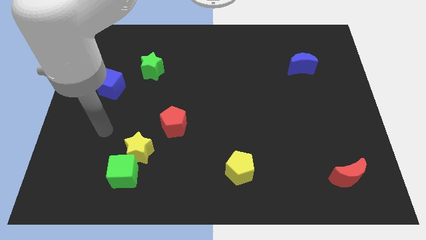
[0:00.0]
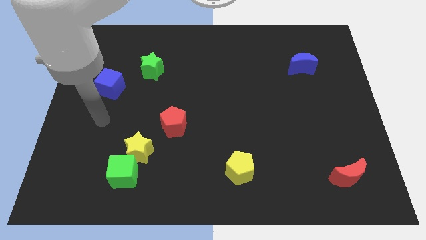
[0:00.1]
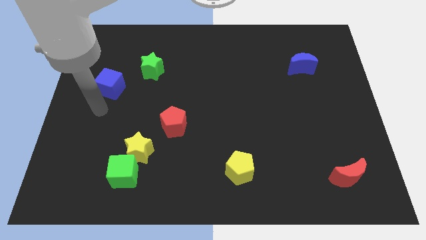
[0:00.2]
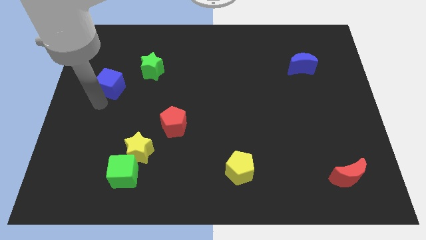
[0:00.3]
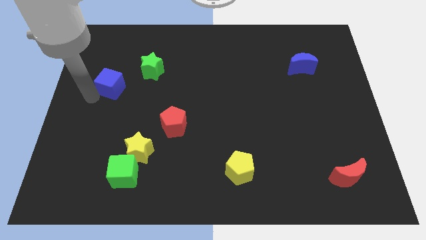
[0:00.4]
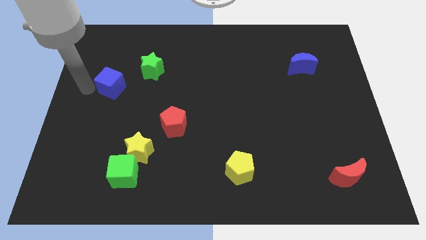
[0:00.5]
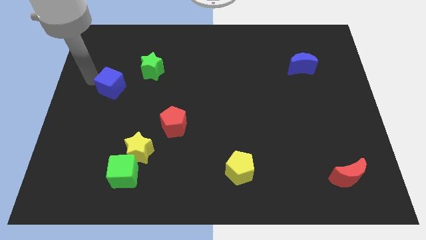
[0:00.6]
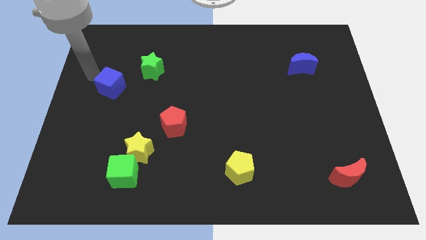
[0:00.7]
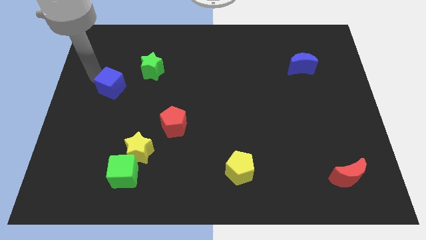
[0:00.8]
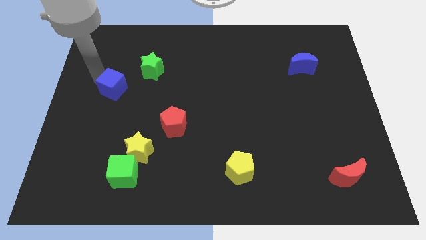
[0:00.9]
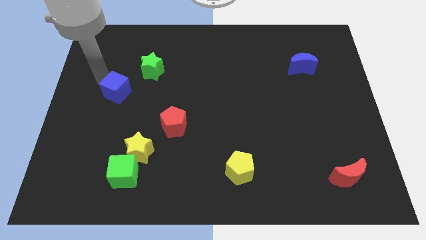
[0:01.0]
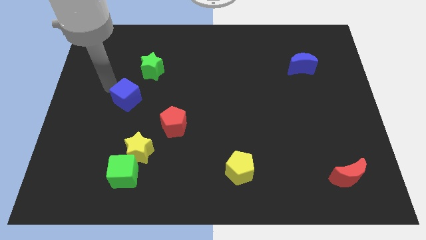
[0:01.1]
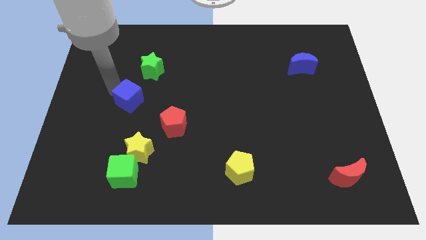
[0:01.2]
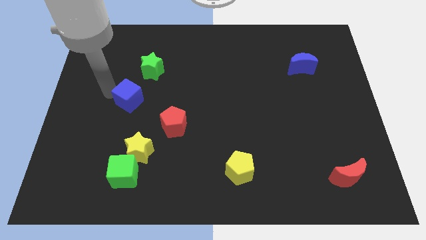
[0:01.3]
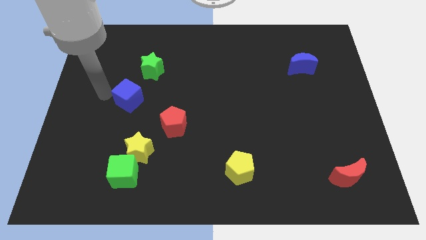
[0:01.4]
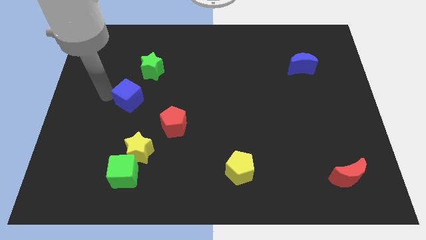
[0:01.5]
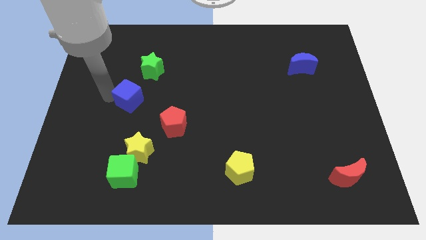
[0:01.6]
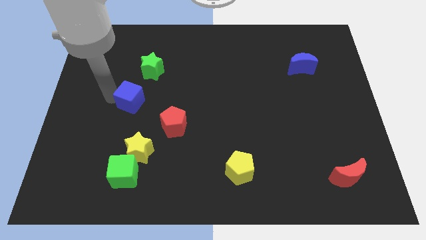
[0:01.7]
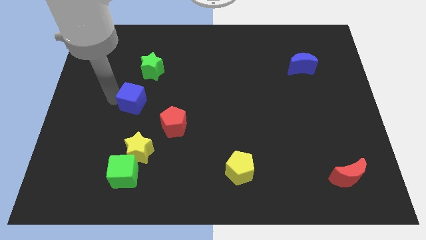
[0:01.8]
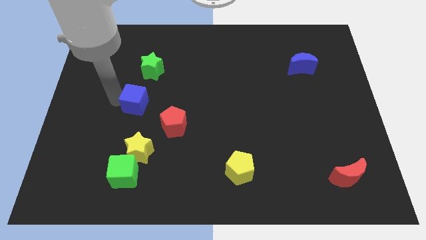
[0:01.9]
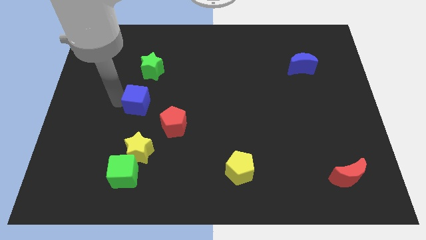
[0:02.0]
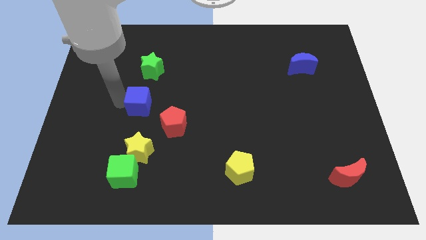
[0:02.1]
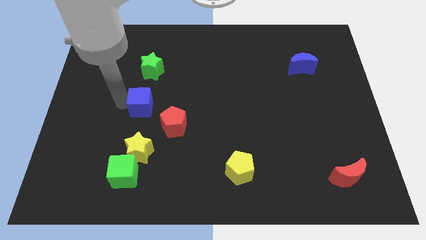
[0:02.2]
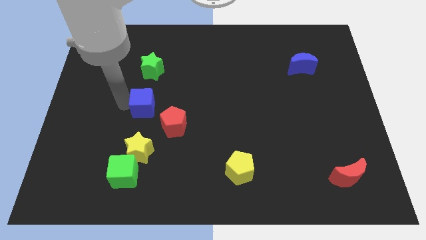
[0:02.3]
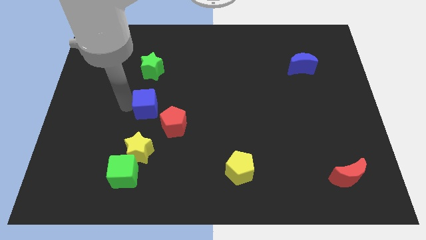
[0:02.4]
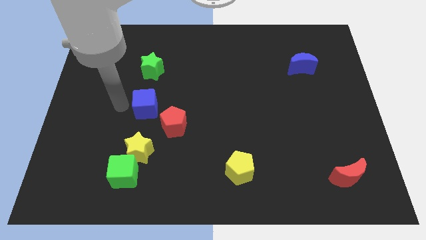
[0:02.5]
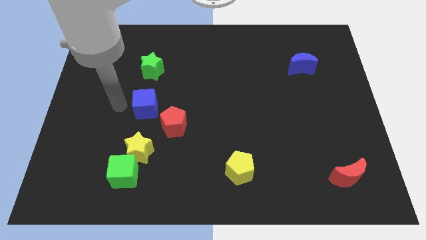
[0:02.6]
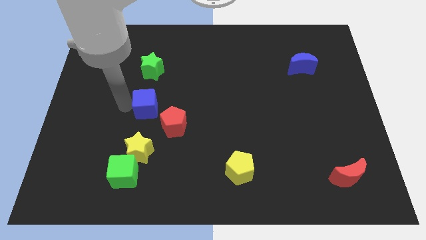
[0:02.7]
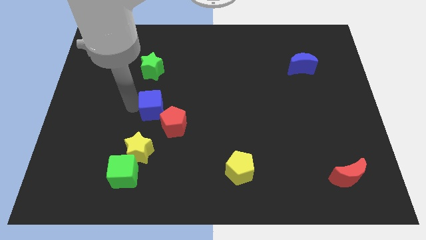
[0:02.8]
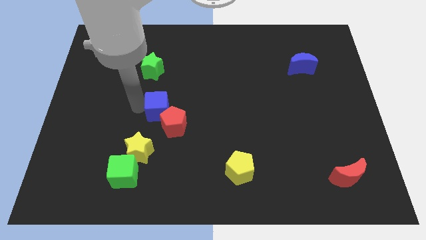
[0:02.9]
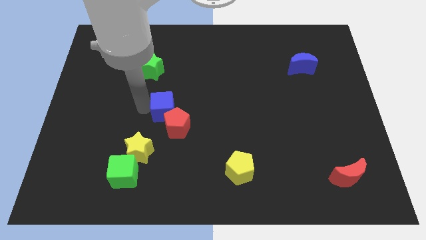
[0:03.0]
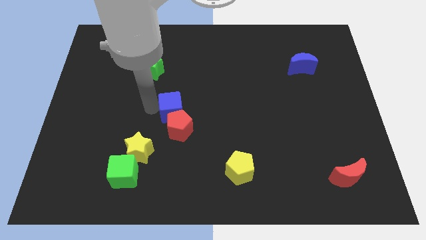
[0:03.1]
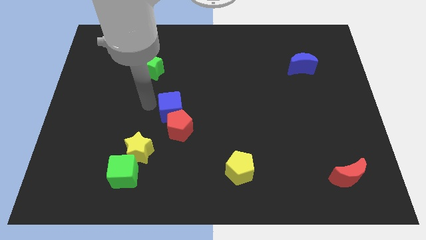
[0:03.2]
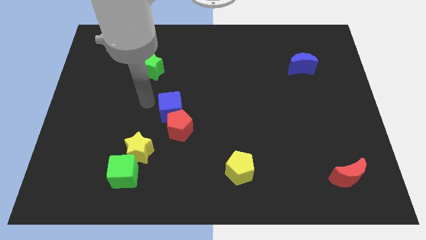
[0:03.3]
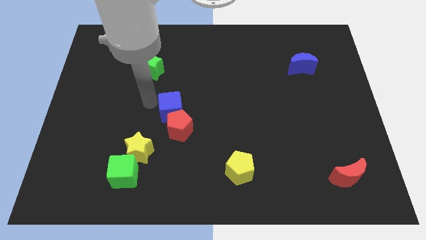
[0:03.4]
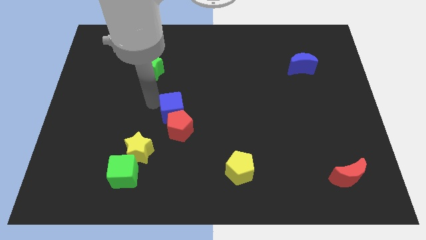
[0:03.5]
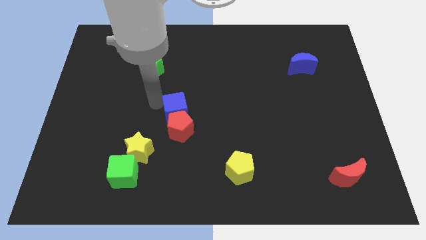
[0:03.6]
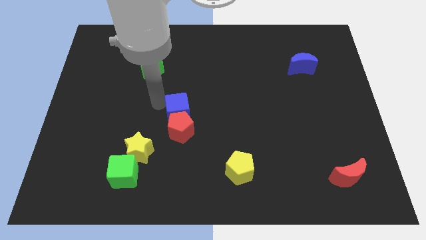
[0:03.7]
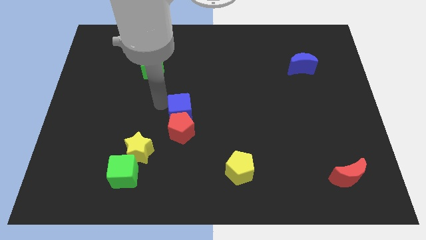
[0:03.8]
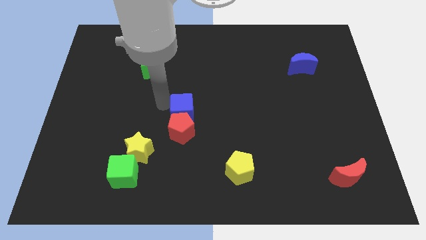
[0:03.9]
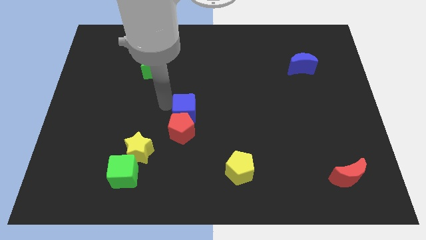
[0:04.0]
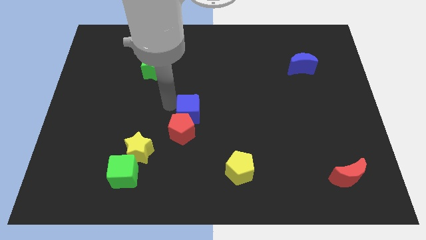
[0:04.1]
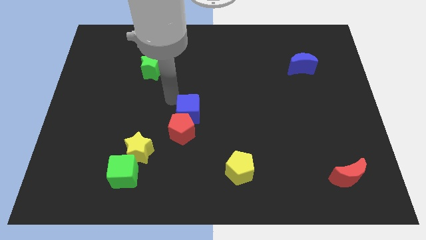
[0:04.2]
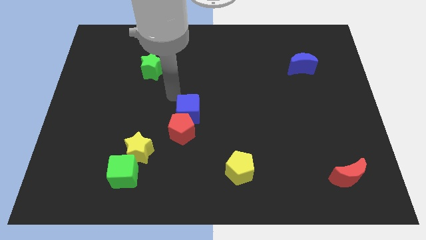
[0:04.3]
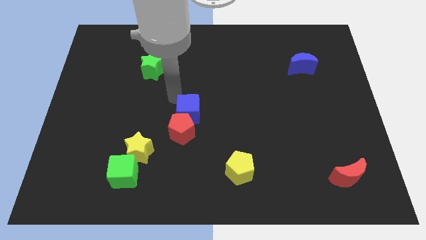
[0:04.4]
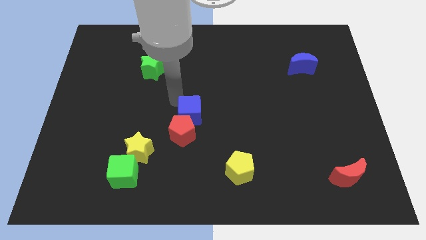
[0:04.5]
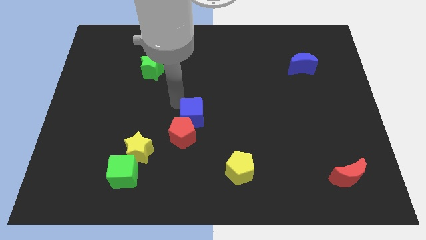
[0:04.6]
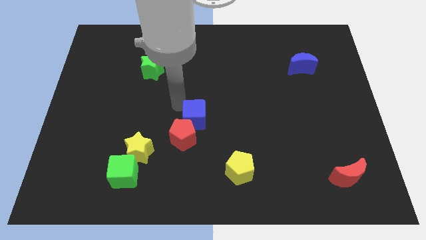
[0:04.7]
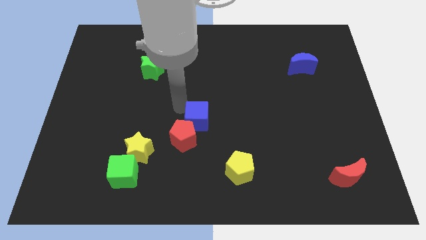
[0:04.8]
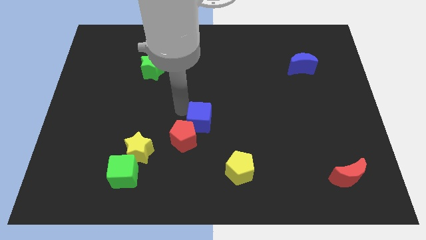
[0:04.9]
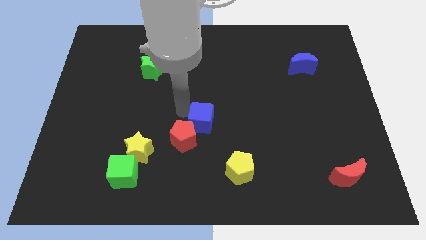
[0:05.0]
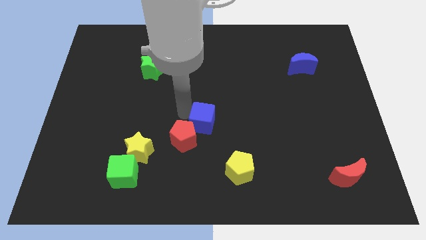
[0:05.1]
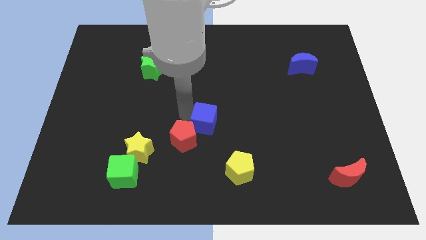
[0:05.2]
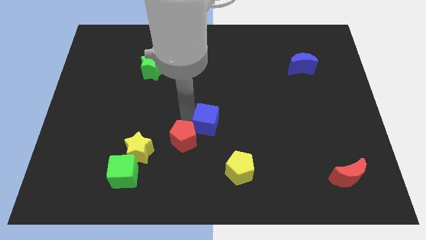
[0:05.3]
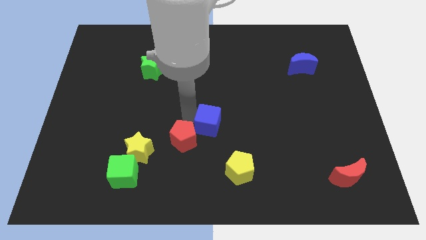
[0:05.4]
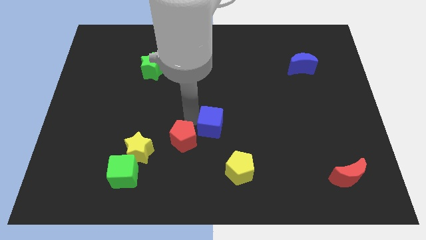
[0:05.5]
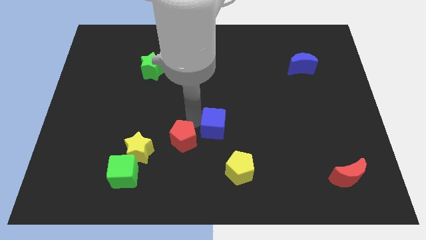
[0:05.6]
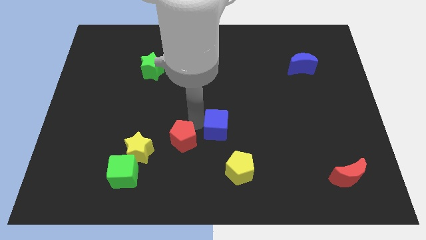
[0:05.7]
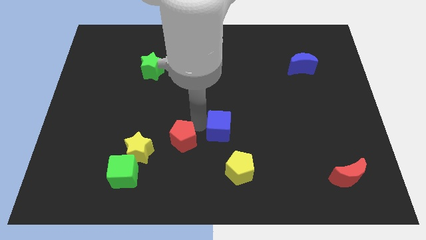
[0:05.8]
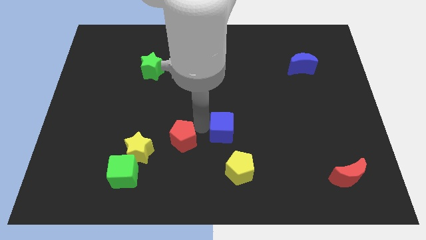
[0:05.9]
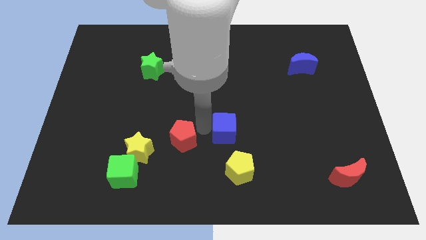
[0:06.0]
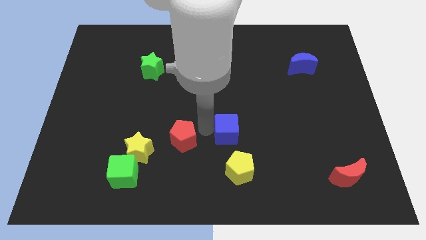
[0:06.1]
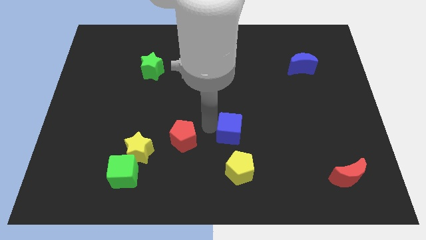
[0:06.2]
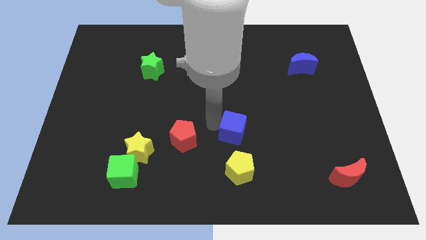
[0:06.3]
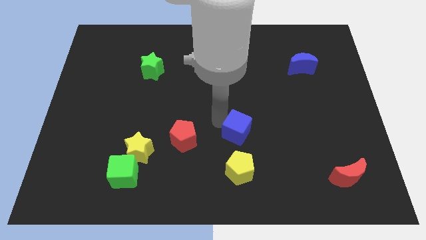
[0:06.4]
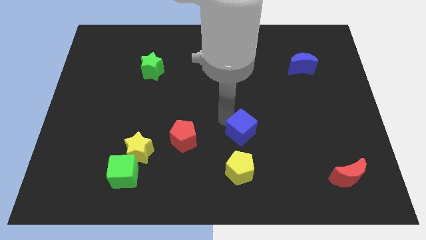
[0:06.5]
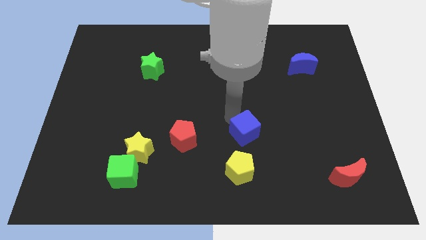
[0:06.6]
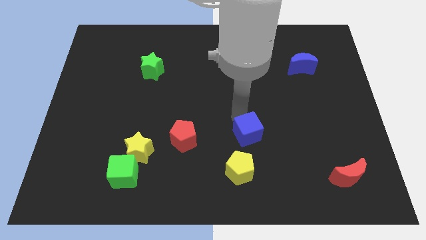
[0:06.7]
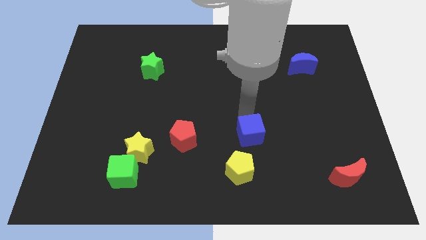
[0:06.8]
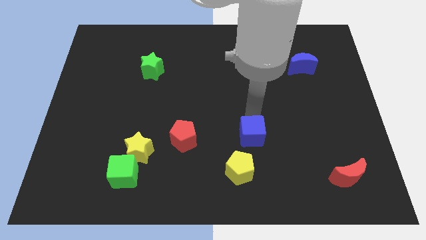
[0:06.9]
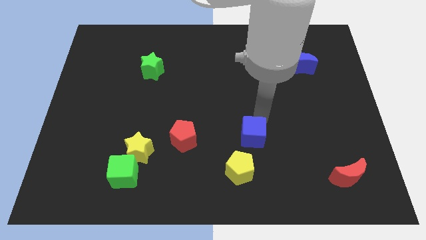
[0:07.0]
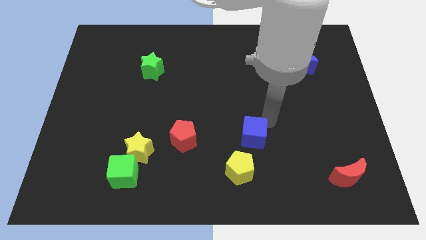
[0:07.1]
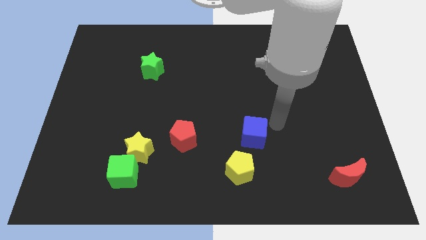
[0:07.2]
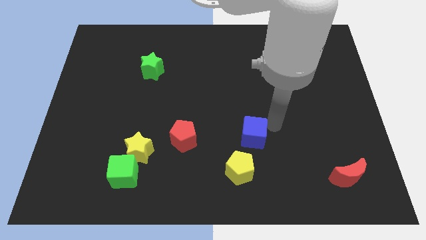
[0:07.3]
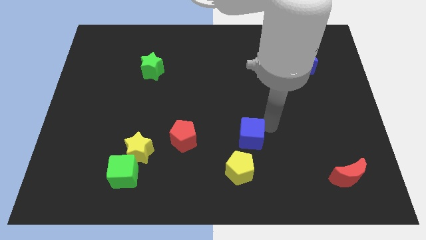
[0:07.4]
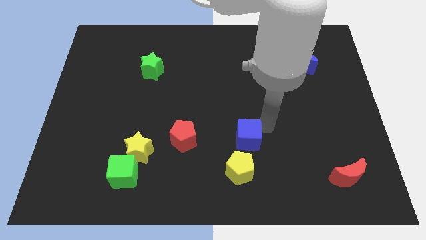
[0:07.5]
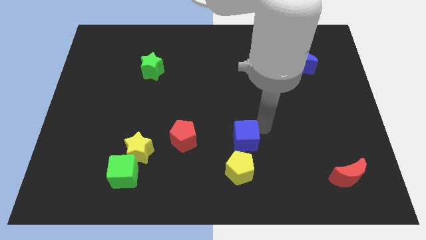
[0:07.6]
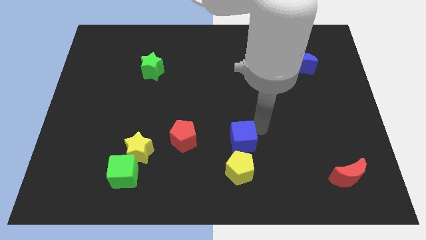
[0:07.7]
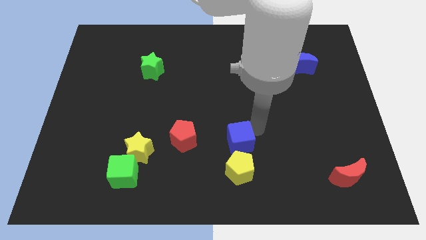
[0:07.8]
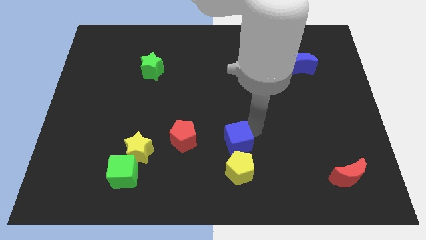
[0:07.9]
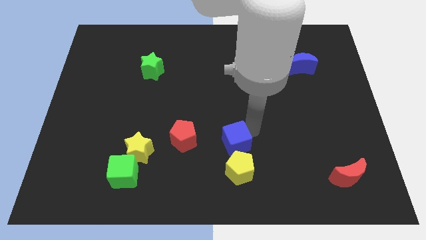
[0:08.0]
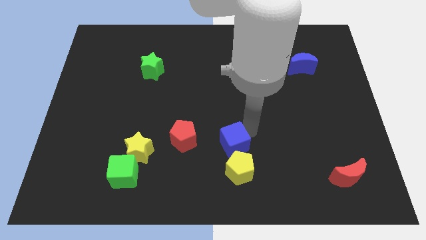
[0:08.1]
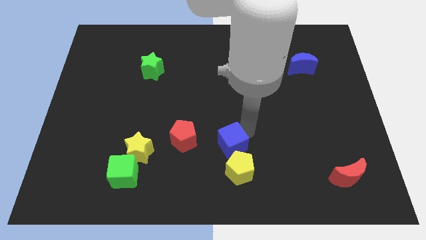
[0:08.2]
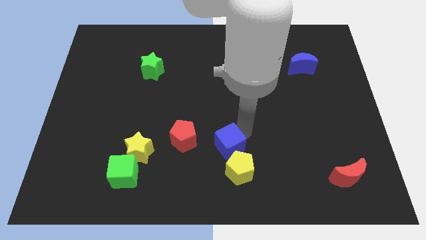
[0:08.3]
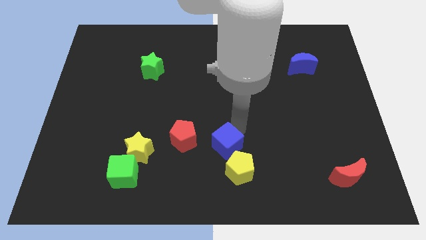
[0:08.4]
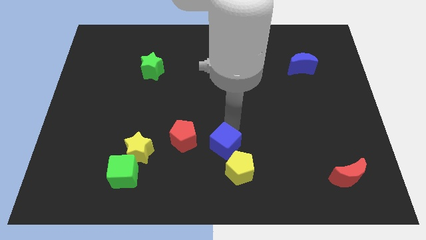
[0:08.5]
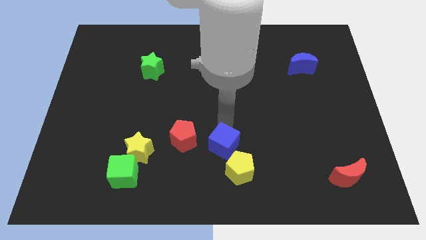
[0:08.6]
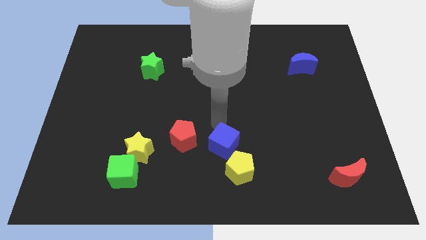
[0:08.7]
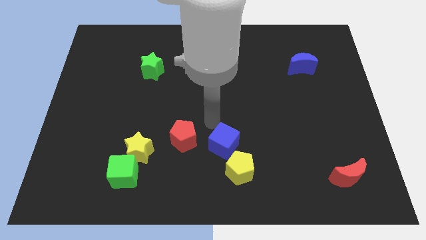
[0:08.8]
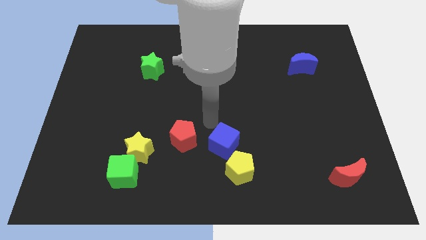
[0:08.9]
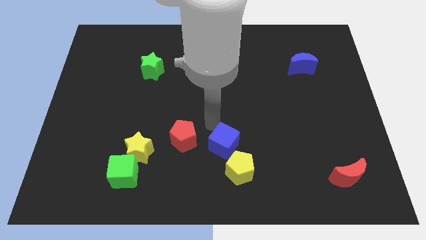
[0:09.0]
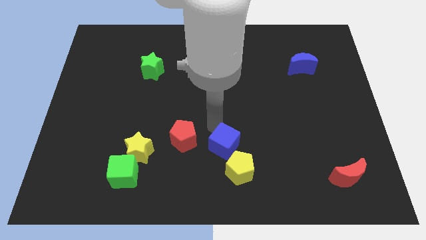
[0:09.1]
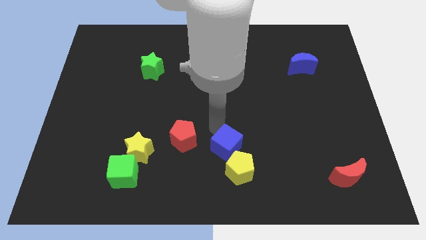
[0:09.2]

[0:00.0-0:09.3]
move the blue cube next to the yellow pentagon
